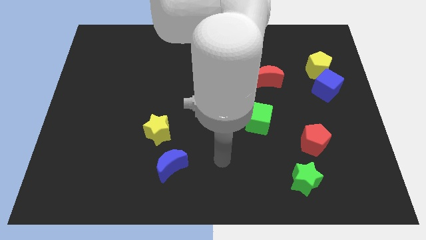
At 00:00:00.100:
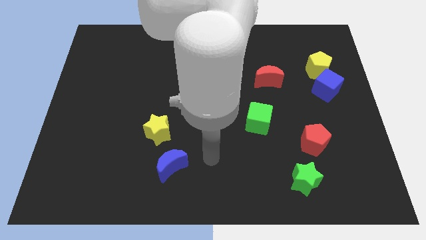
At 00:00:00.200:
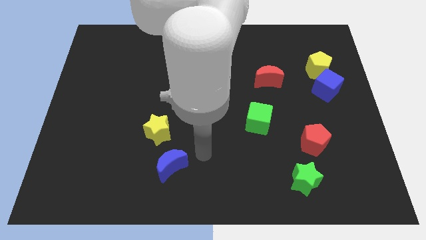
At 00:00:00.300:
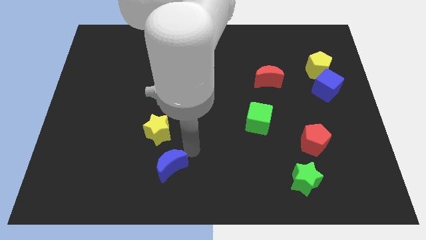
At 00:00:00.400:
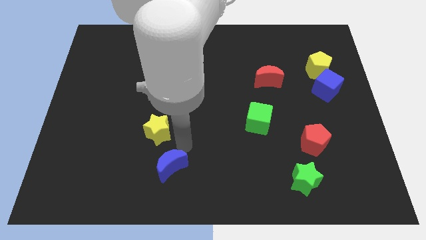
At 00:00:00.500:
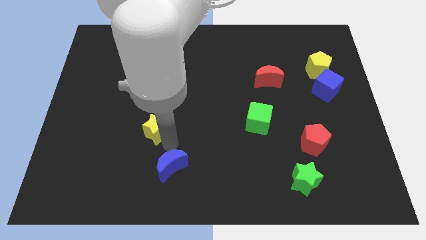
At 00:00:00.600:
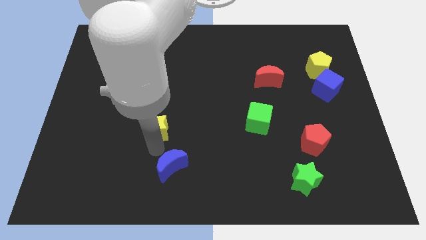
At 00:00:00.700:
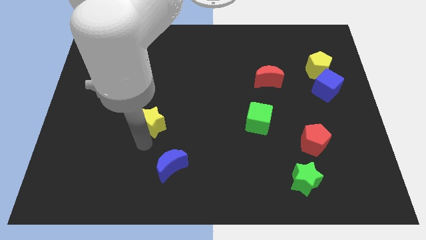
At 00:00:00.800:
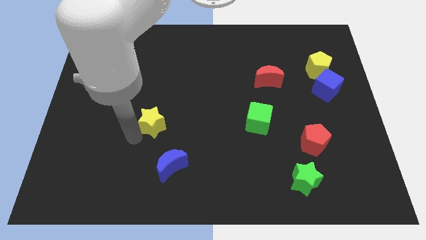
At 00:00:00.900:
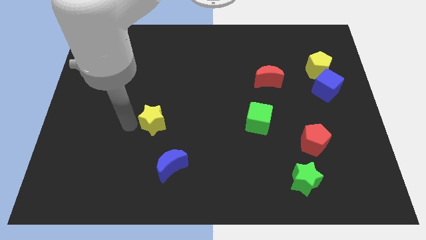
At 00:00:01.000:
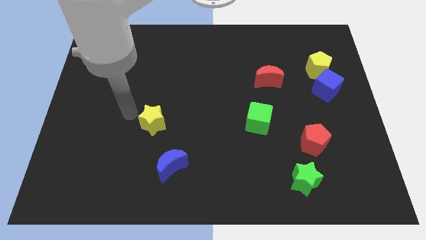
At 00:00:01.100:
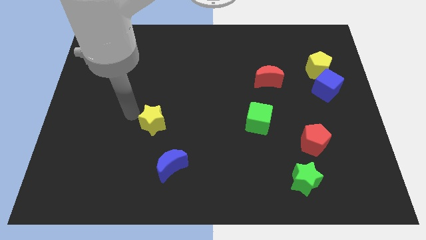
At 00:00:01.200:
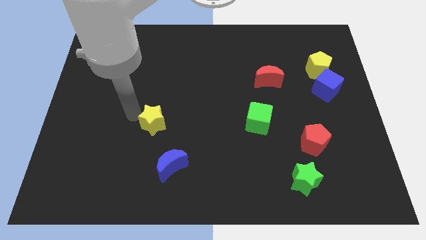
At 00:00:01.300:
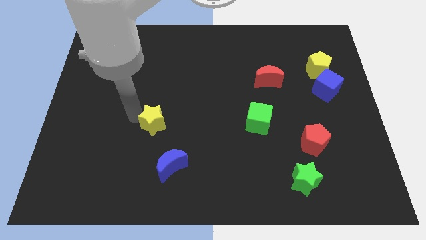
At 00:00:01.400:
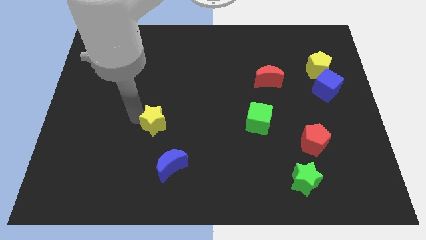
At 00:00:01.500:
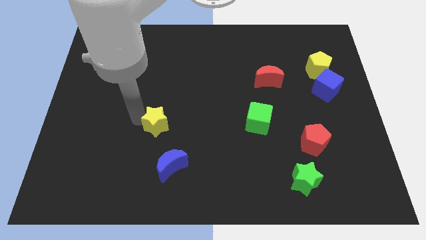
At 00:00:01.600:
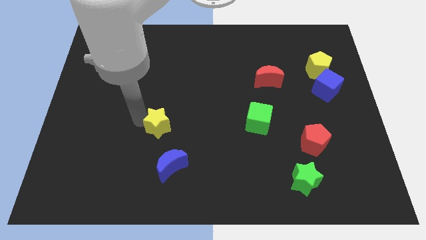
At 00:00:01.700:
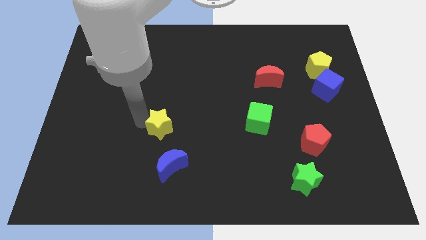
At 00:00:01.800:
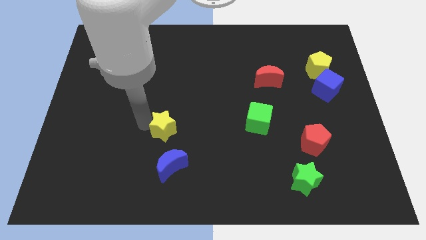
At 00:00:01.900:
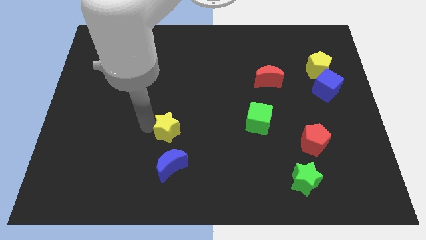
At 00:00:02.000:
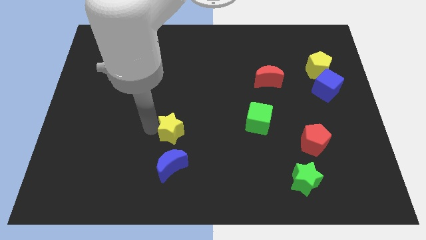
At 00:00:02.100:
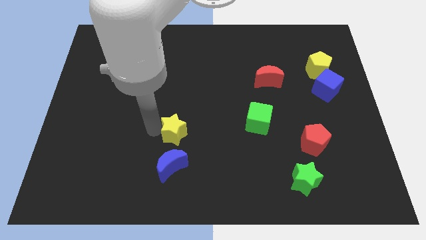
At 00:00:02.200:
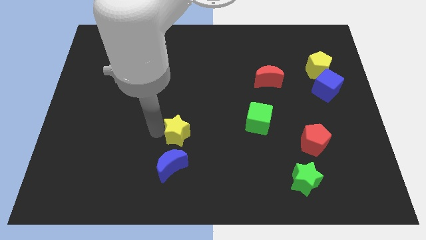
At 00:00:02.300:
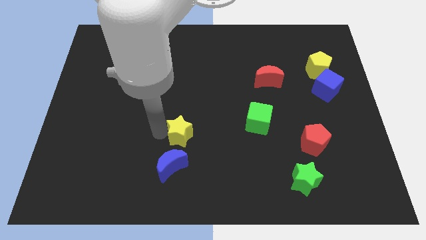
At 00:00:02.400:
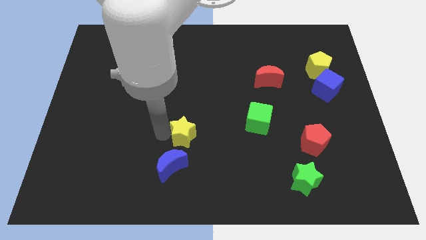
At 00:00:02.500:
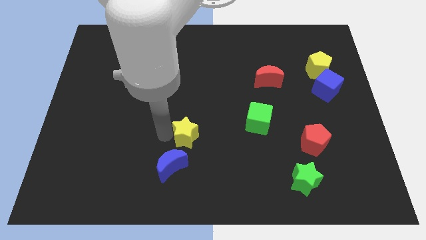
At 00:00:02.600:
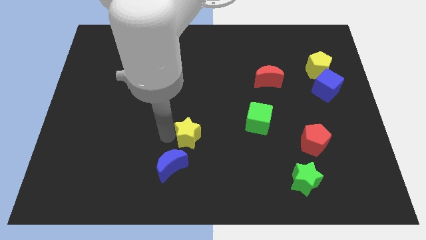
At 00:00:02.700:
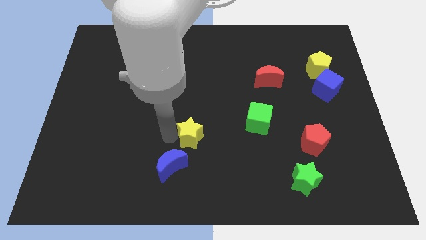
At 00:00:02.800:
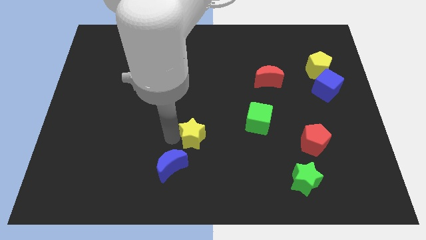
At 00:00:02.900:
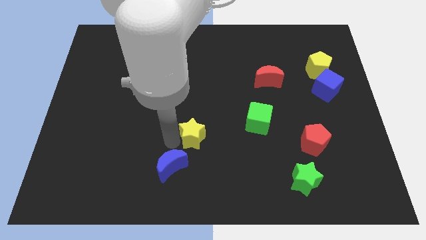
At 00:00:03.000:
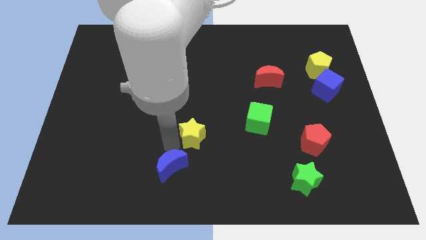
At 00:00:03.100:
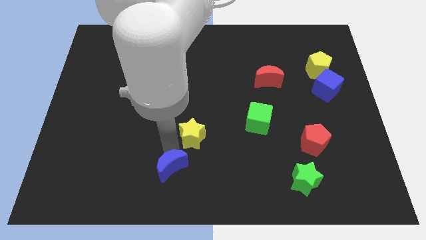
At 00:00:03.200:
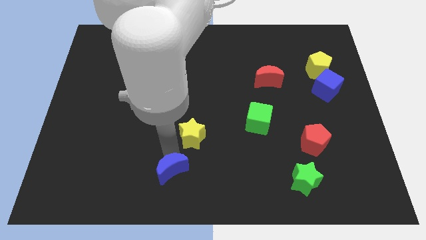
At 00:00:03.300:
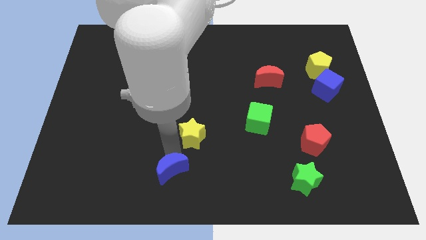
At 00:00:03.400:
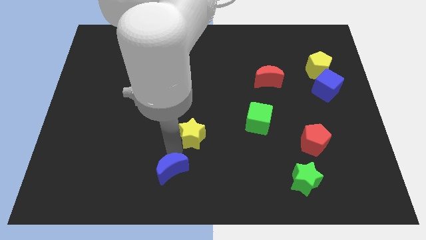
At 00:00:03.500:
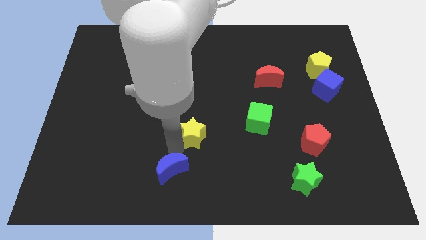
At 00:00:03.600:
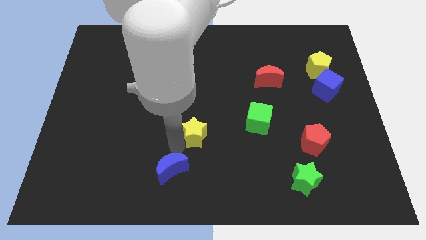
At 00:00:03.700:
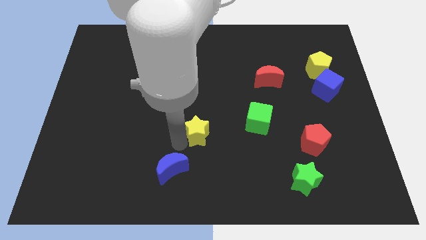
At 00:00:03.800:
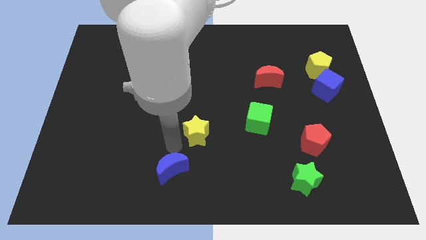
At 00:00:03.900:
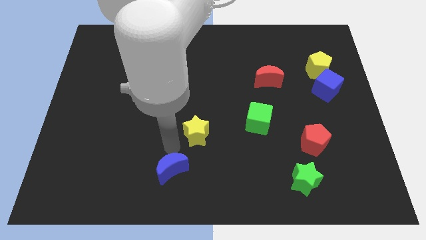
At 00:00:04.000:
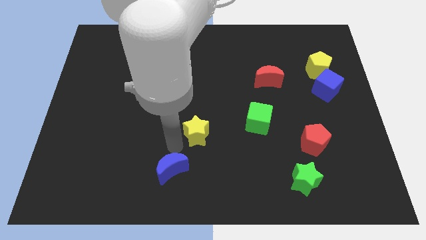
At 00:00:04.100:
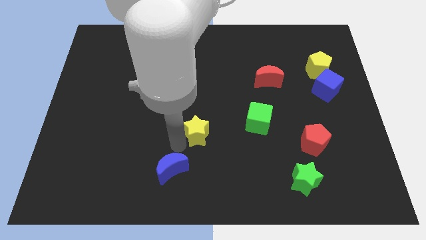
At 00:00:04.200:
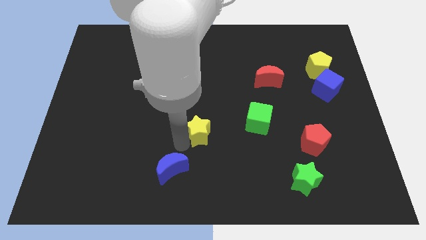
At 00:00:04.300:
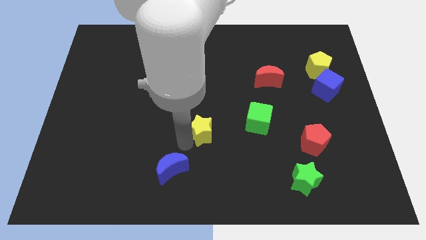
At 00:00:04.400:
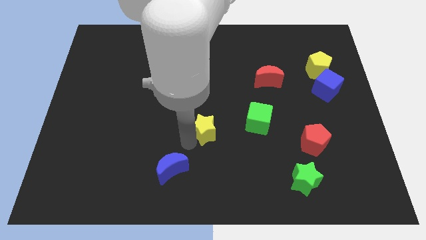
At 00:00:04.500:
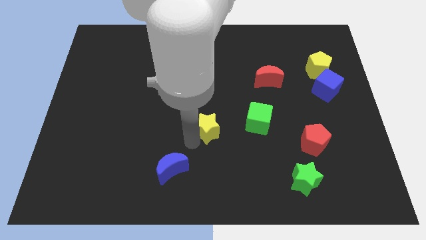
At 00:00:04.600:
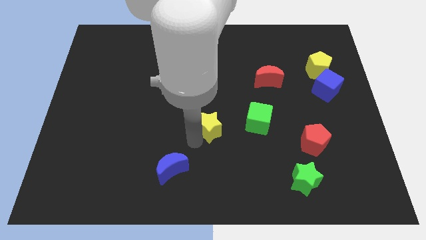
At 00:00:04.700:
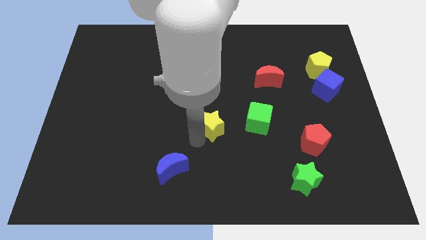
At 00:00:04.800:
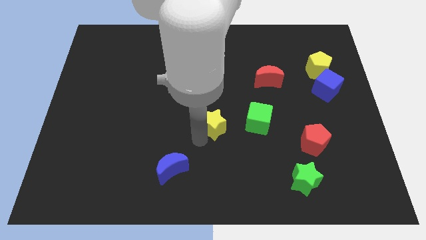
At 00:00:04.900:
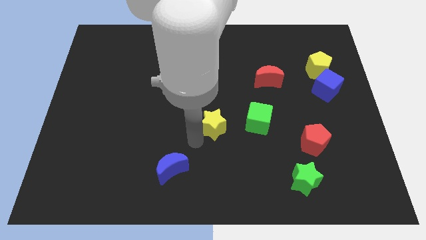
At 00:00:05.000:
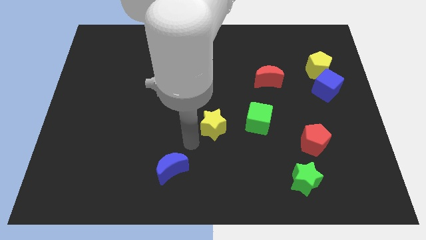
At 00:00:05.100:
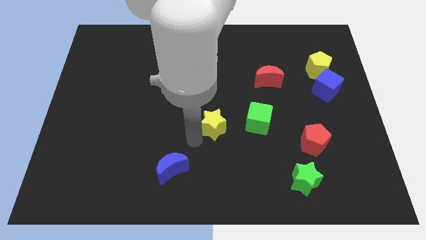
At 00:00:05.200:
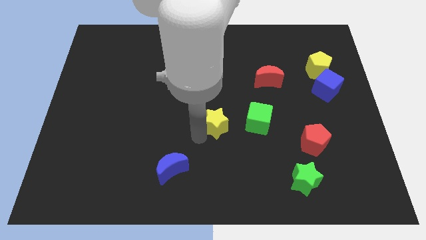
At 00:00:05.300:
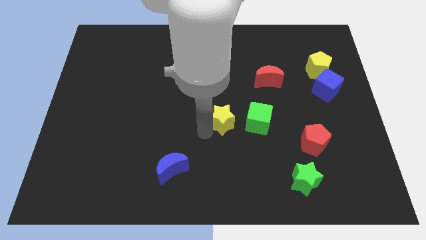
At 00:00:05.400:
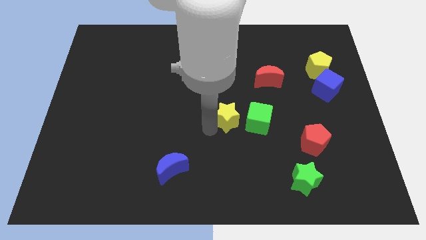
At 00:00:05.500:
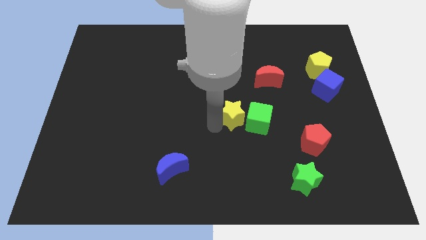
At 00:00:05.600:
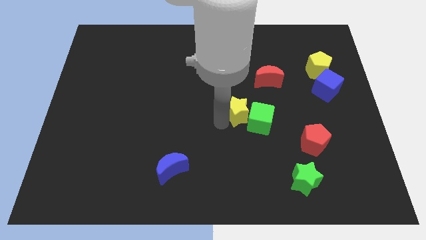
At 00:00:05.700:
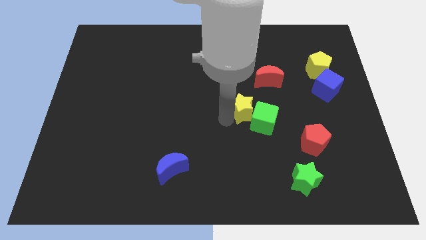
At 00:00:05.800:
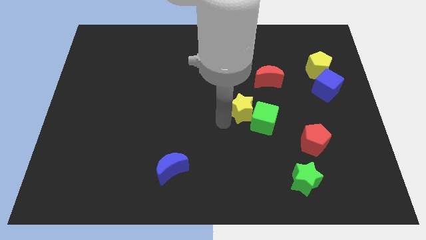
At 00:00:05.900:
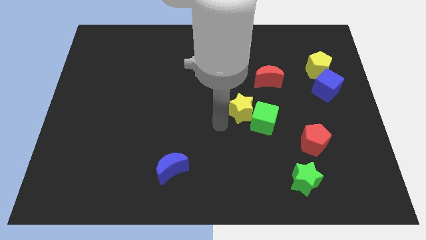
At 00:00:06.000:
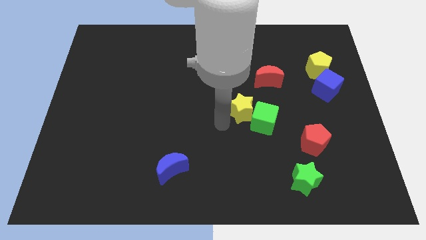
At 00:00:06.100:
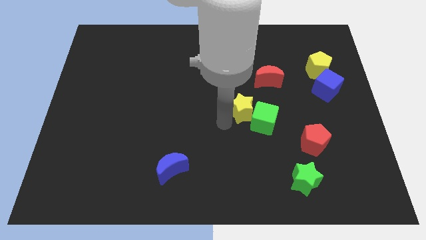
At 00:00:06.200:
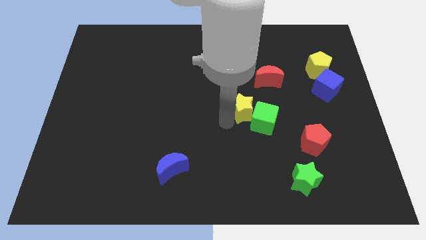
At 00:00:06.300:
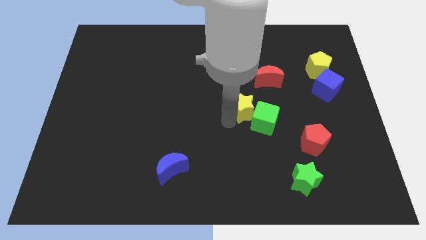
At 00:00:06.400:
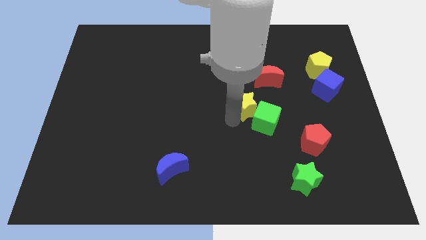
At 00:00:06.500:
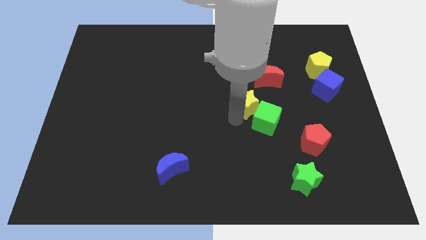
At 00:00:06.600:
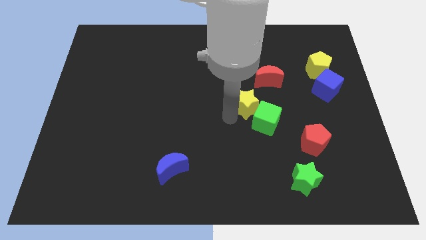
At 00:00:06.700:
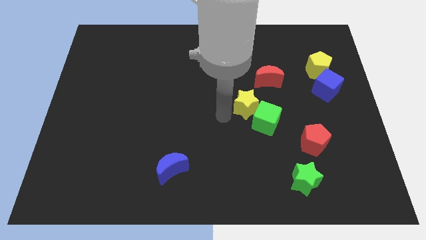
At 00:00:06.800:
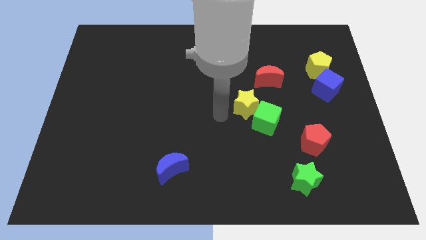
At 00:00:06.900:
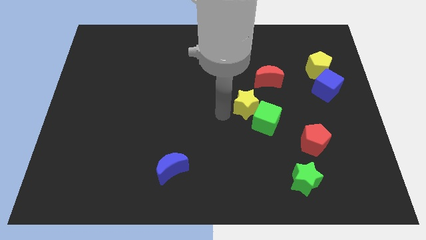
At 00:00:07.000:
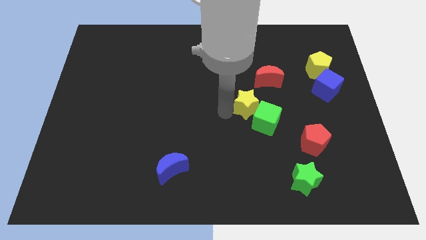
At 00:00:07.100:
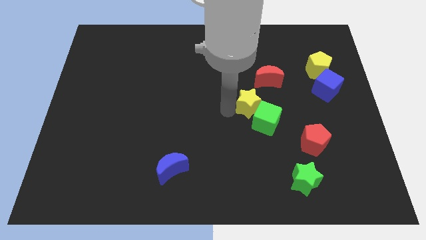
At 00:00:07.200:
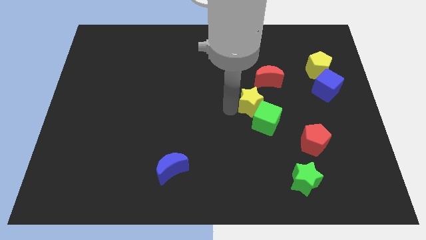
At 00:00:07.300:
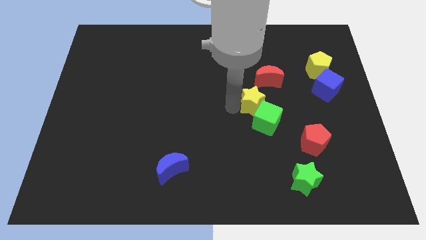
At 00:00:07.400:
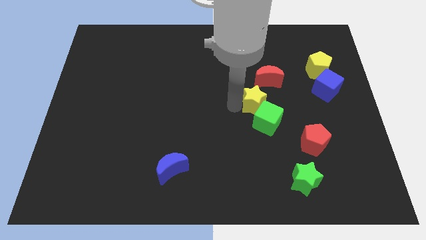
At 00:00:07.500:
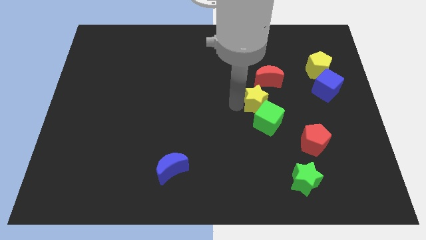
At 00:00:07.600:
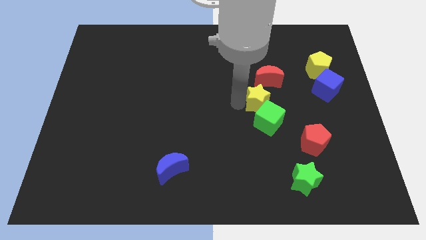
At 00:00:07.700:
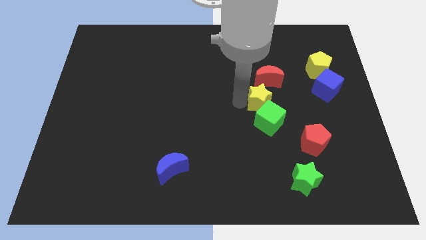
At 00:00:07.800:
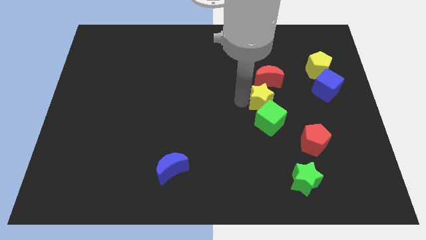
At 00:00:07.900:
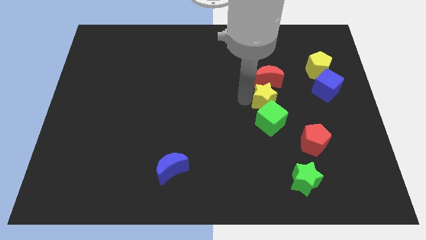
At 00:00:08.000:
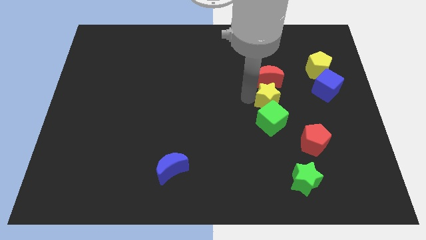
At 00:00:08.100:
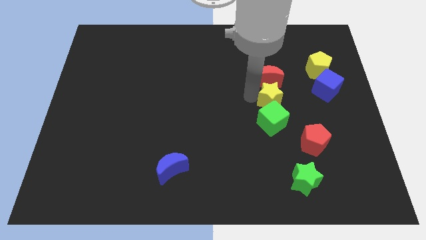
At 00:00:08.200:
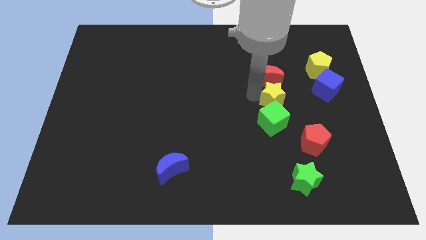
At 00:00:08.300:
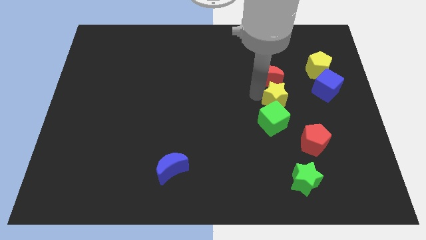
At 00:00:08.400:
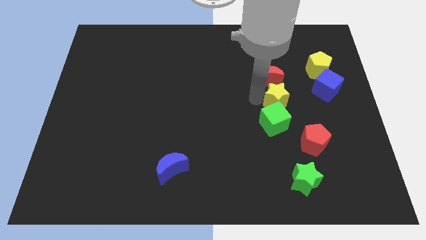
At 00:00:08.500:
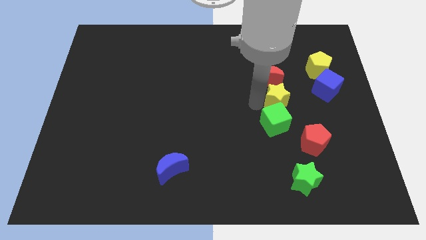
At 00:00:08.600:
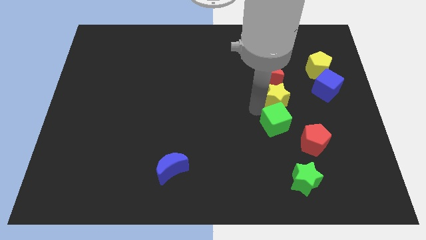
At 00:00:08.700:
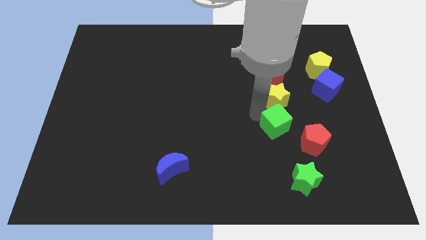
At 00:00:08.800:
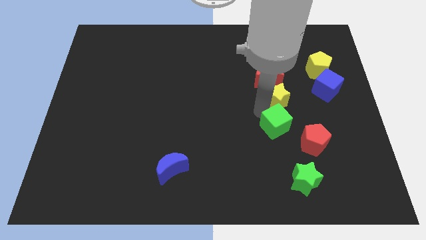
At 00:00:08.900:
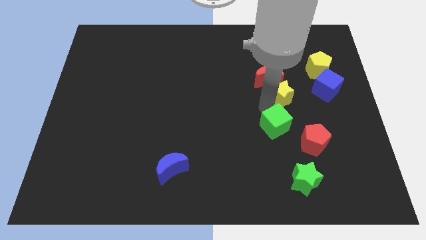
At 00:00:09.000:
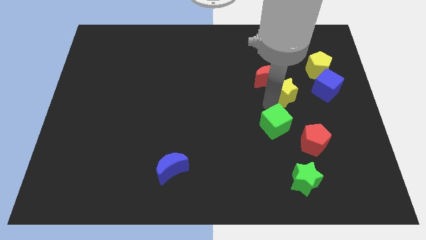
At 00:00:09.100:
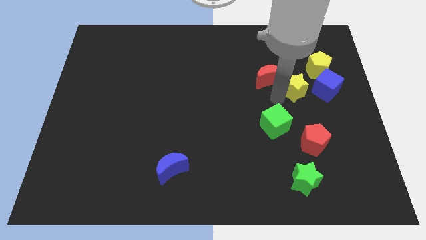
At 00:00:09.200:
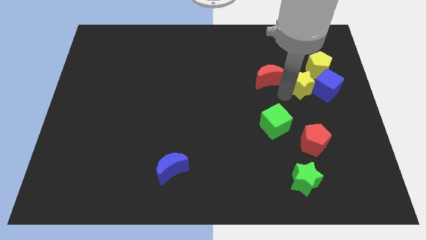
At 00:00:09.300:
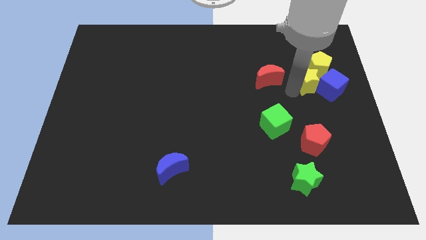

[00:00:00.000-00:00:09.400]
push the yellow star close to the yellow pentagon
